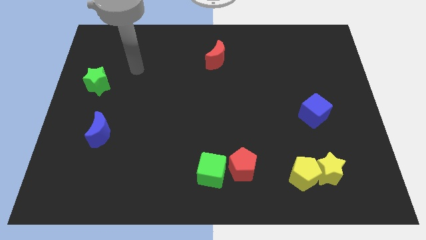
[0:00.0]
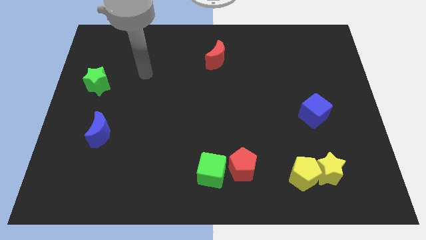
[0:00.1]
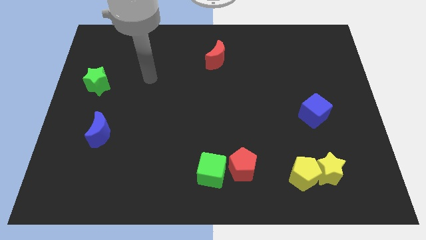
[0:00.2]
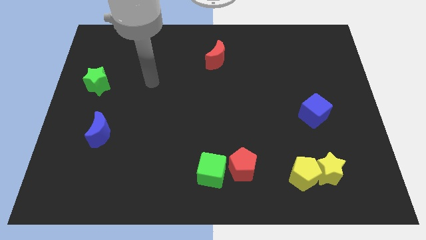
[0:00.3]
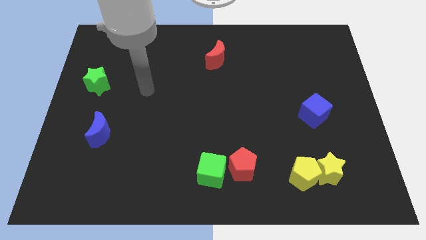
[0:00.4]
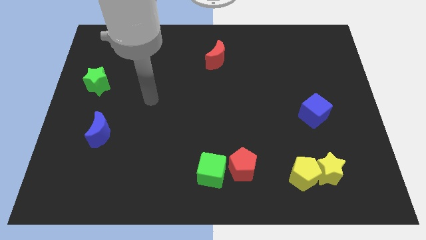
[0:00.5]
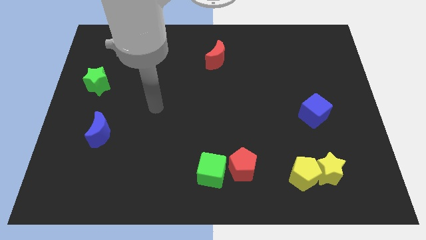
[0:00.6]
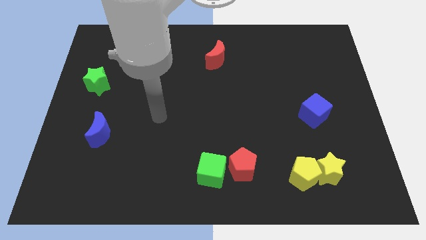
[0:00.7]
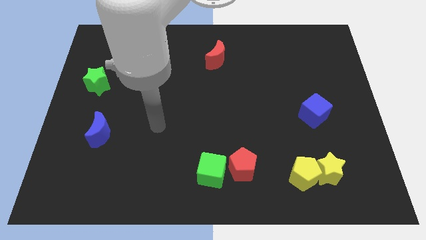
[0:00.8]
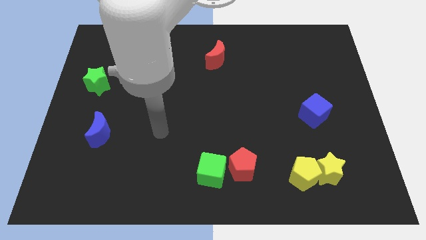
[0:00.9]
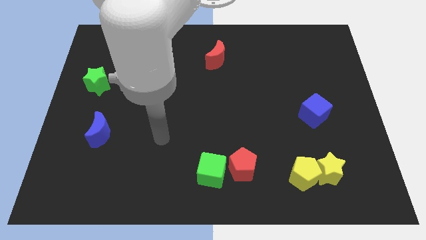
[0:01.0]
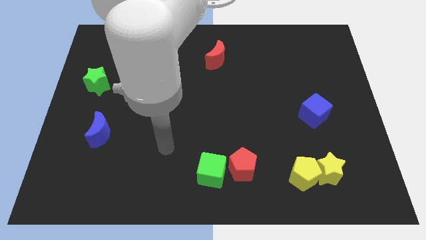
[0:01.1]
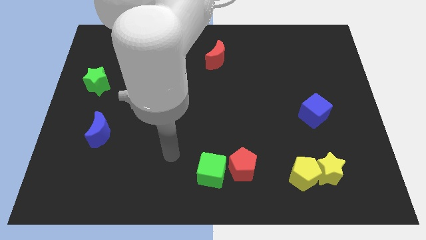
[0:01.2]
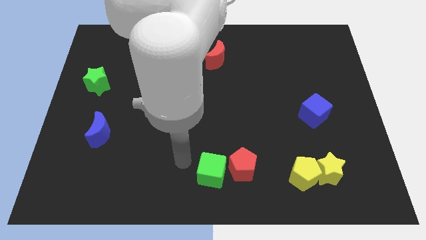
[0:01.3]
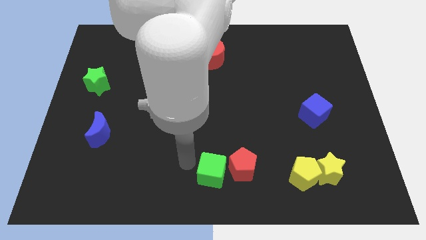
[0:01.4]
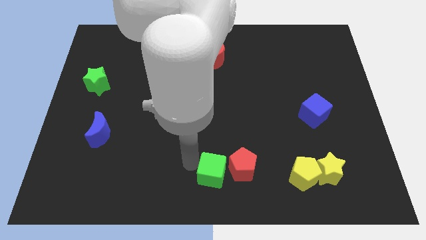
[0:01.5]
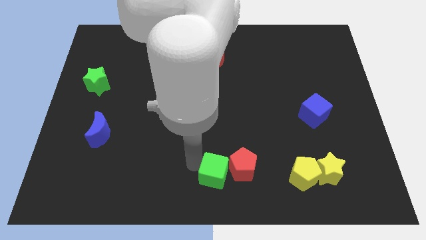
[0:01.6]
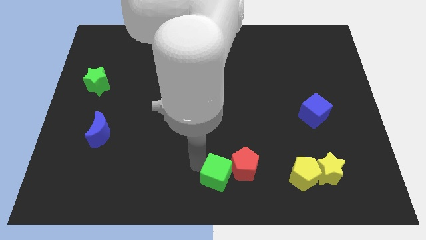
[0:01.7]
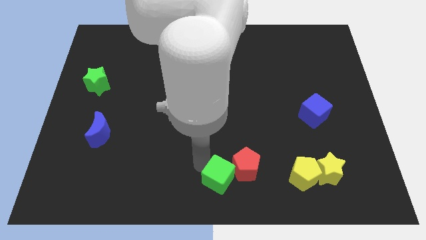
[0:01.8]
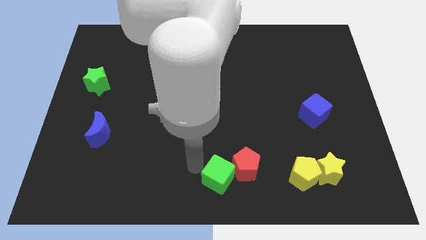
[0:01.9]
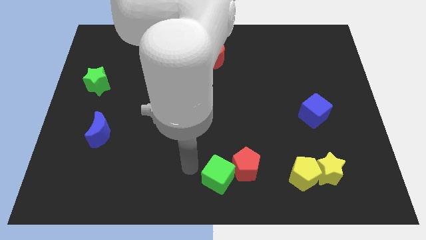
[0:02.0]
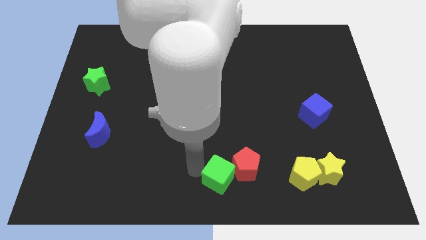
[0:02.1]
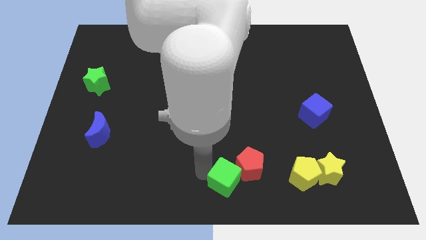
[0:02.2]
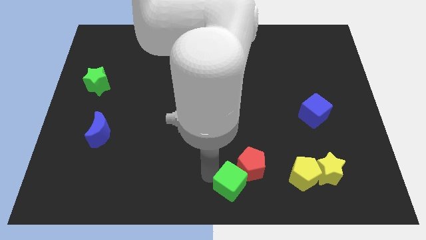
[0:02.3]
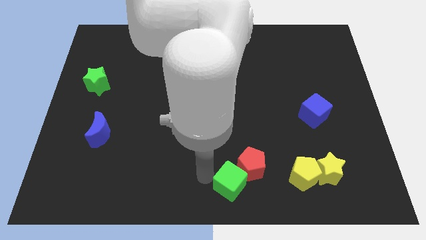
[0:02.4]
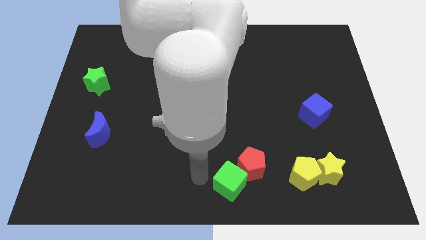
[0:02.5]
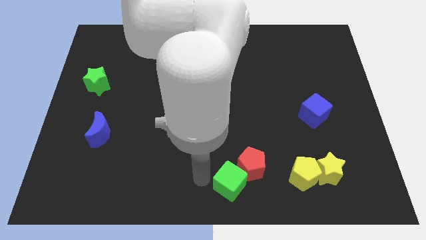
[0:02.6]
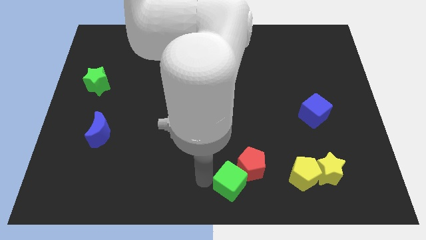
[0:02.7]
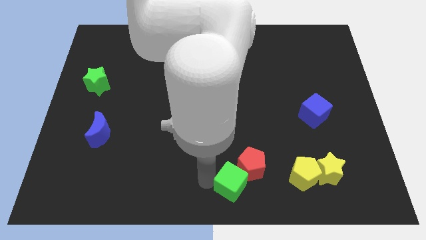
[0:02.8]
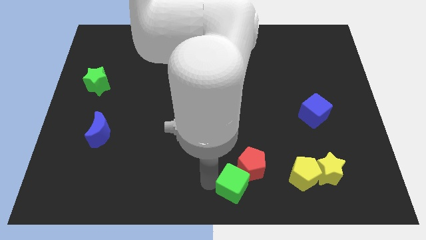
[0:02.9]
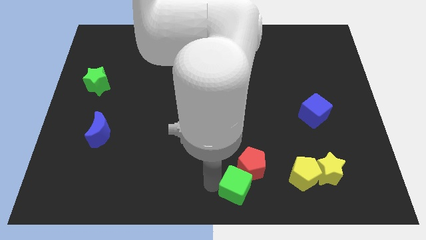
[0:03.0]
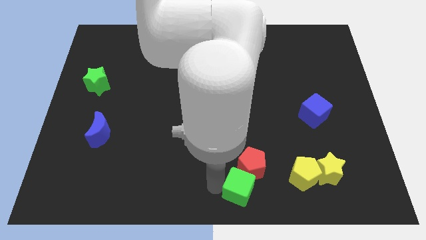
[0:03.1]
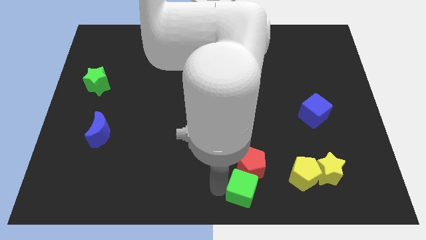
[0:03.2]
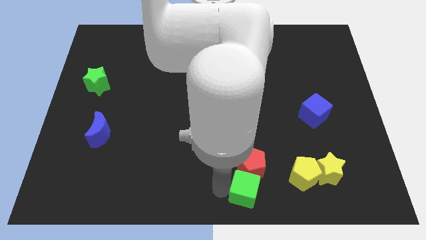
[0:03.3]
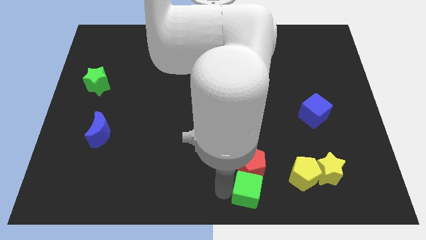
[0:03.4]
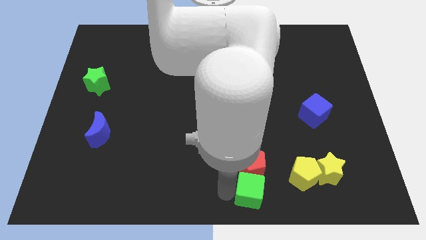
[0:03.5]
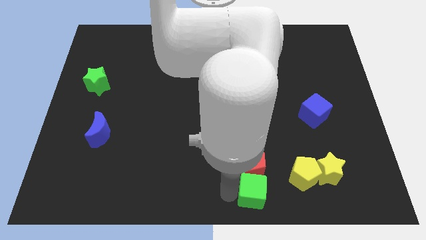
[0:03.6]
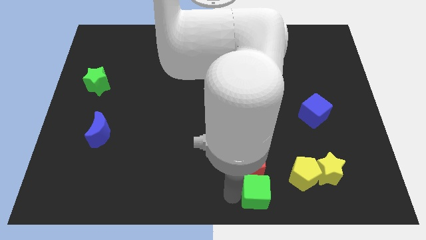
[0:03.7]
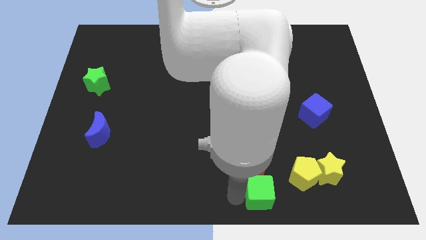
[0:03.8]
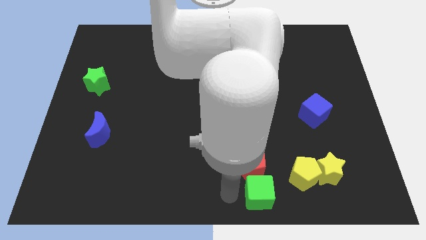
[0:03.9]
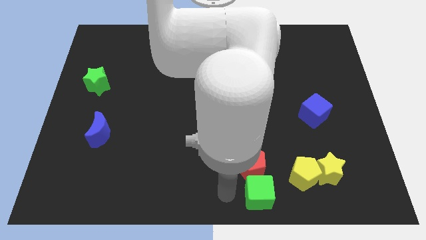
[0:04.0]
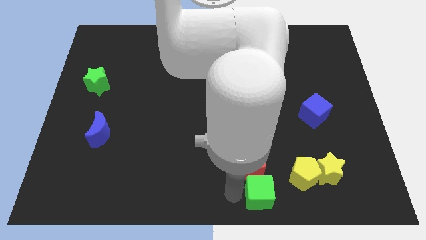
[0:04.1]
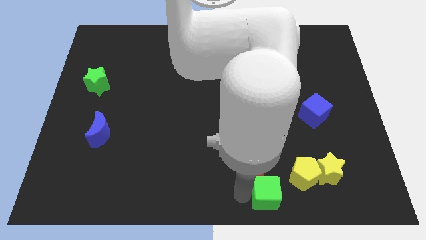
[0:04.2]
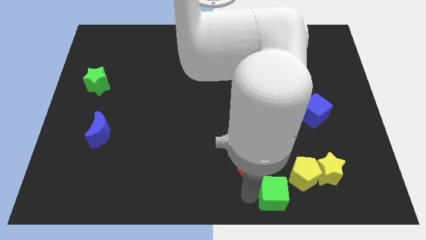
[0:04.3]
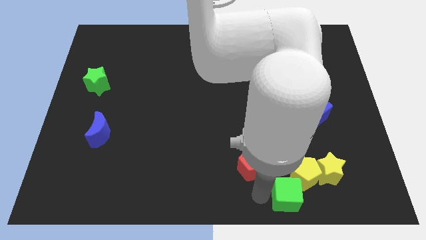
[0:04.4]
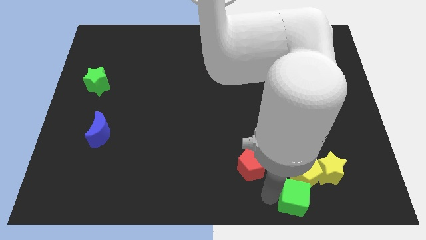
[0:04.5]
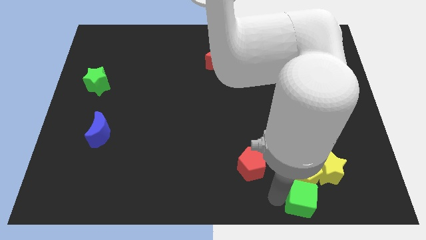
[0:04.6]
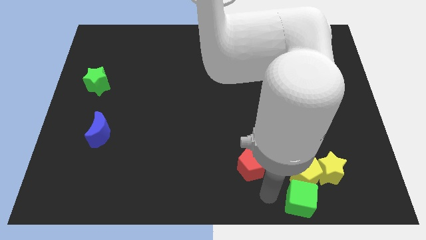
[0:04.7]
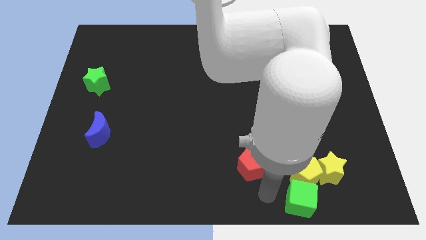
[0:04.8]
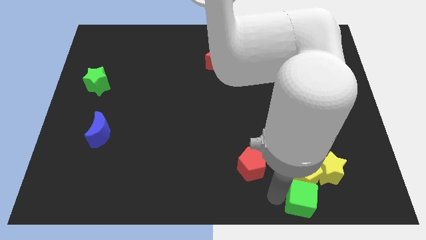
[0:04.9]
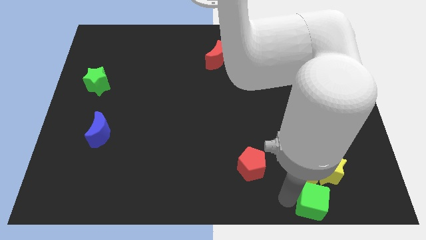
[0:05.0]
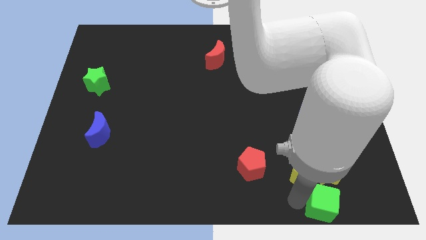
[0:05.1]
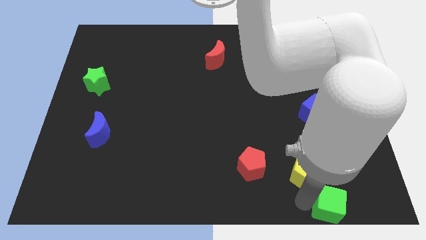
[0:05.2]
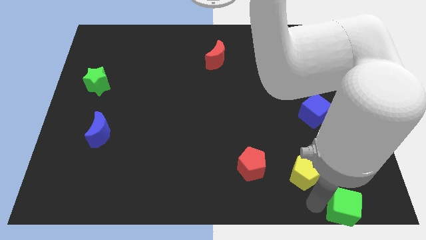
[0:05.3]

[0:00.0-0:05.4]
push the green cube to the bottom right of the board

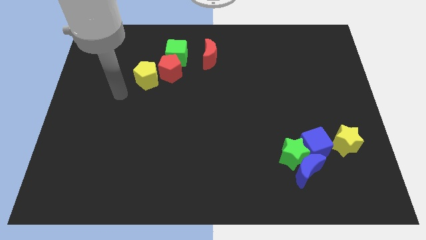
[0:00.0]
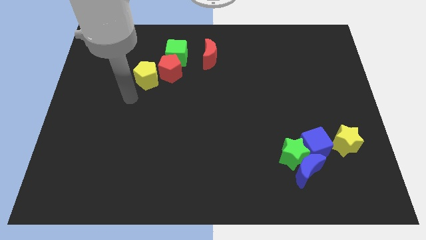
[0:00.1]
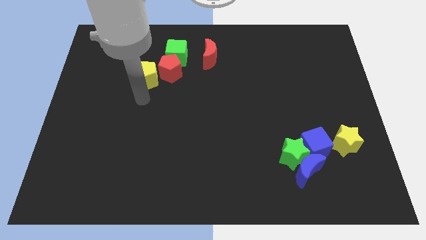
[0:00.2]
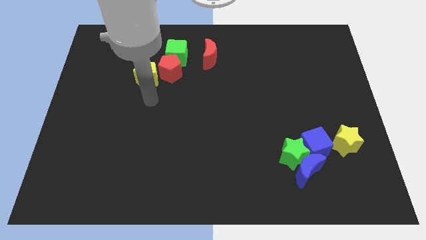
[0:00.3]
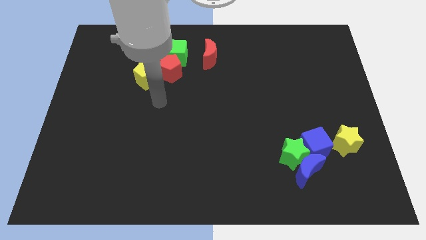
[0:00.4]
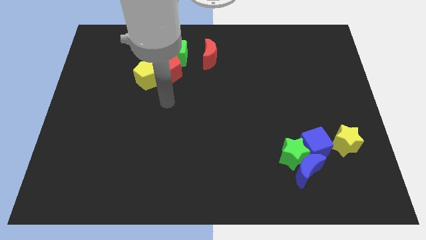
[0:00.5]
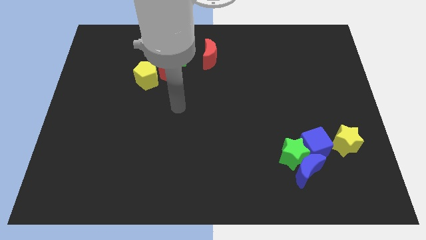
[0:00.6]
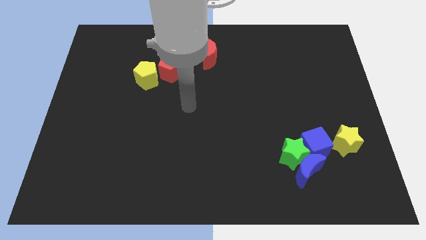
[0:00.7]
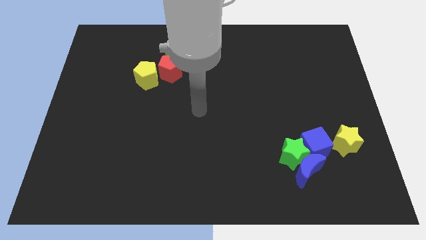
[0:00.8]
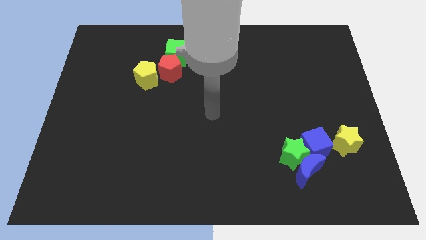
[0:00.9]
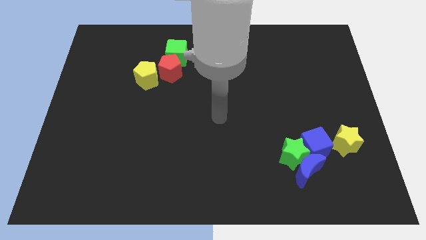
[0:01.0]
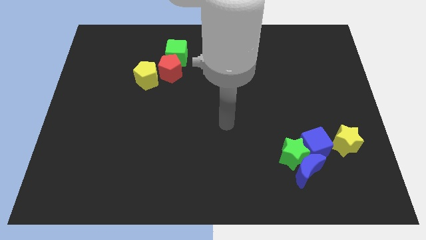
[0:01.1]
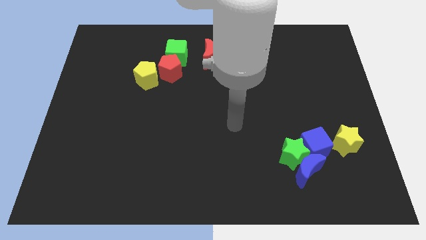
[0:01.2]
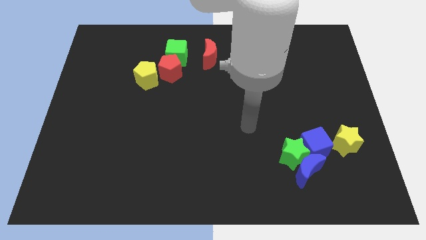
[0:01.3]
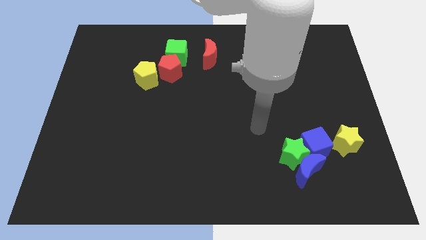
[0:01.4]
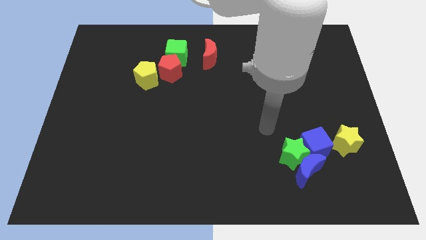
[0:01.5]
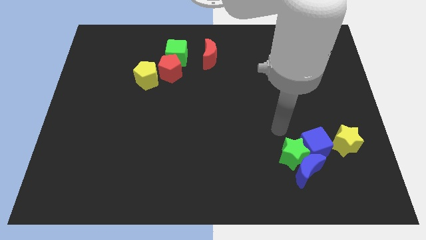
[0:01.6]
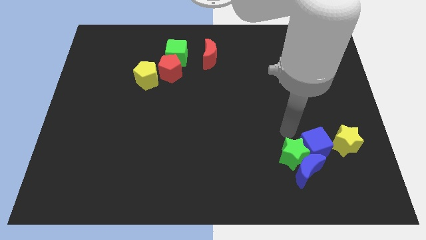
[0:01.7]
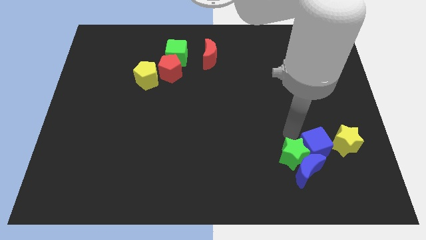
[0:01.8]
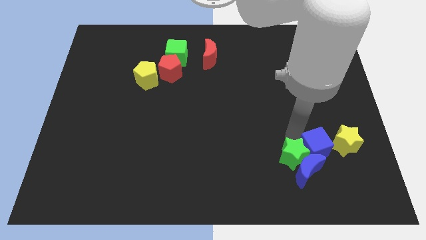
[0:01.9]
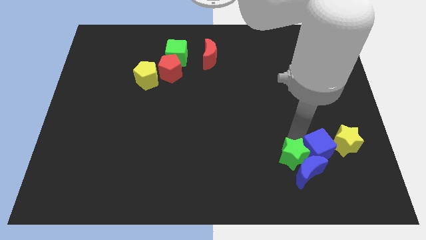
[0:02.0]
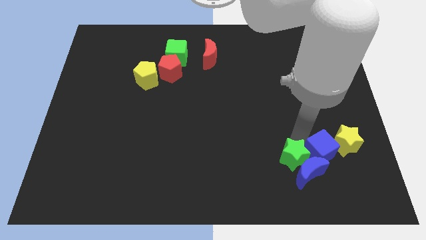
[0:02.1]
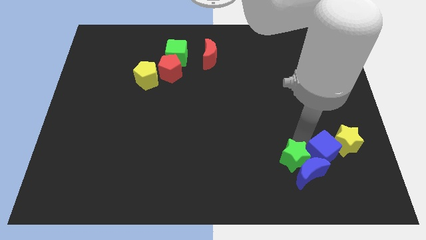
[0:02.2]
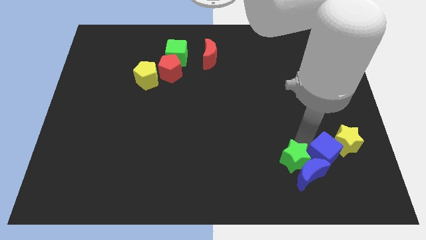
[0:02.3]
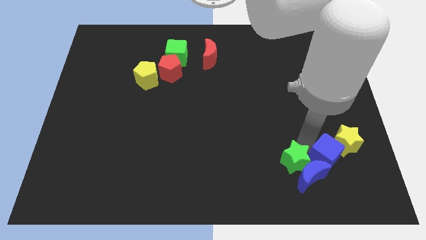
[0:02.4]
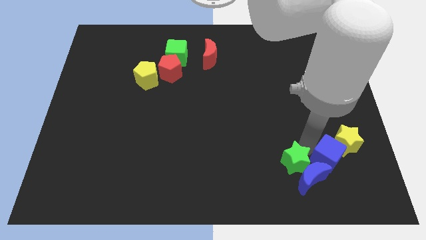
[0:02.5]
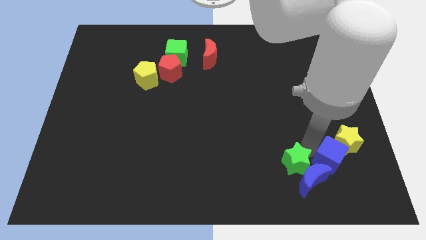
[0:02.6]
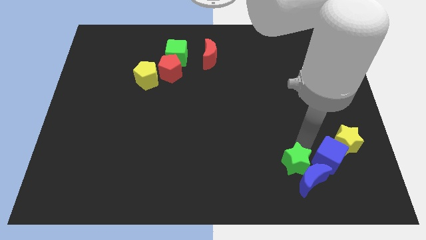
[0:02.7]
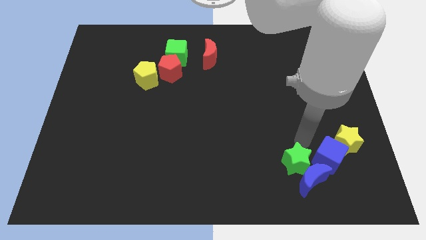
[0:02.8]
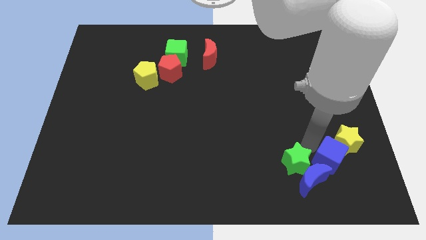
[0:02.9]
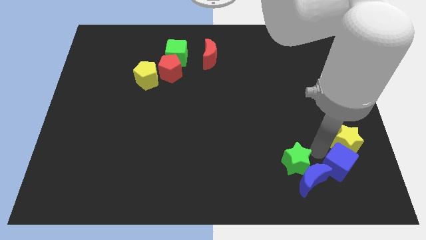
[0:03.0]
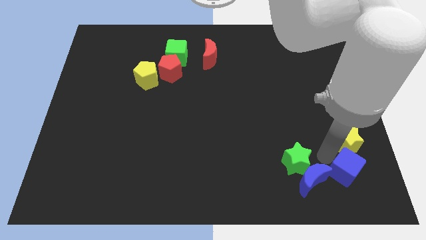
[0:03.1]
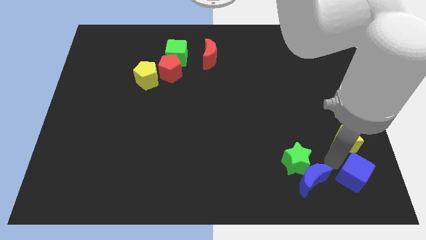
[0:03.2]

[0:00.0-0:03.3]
slide the blue cube to the bottom right corner
